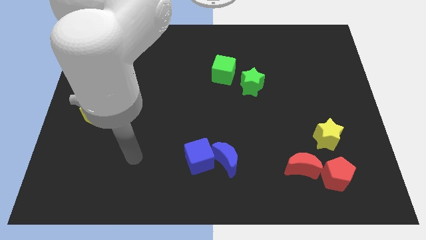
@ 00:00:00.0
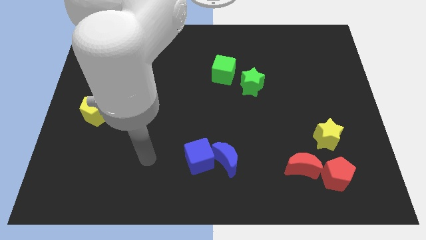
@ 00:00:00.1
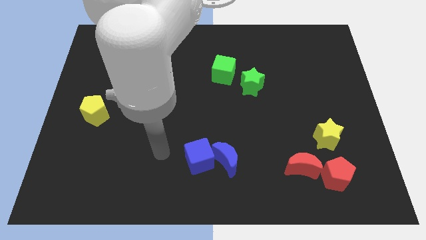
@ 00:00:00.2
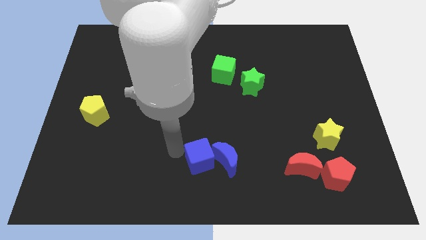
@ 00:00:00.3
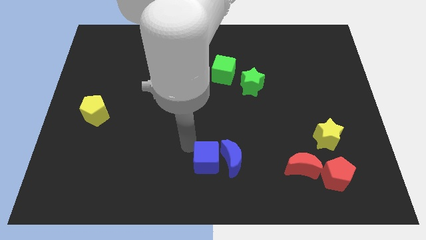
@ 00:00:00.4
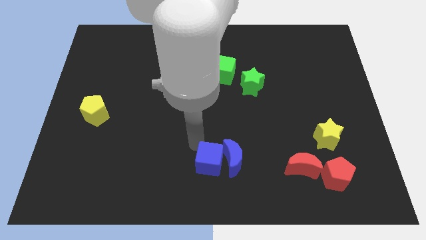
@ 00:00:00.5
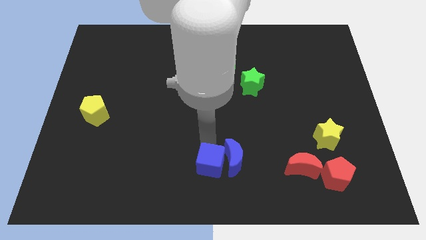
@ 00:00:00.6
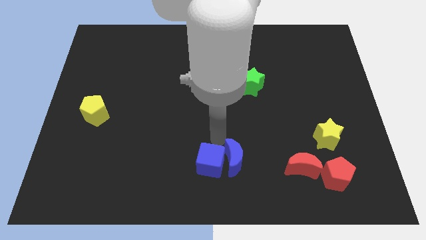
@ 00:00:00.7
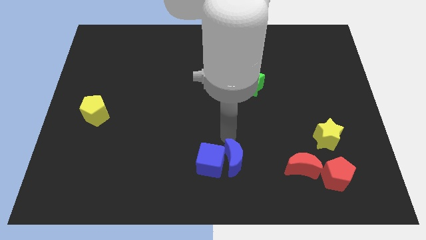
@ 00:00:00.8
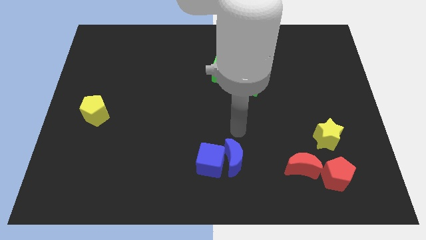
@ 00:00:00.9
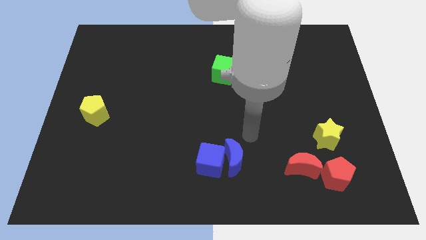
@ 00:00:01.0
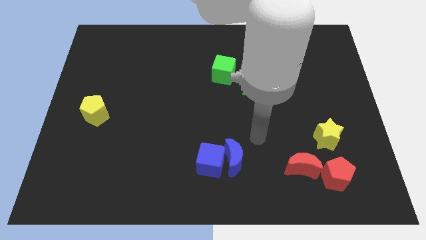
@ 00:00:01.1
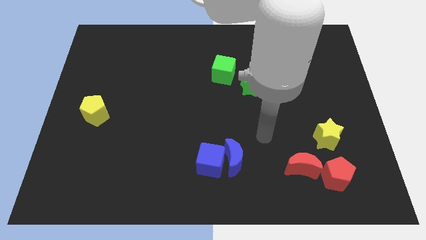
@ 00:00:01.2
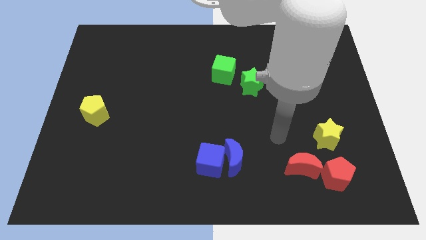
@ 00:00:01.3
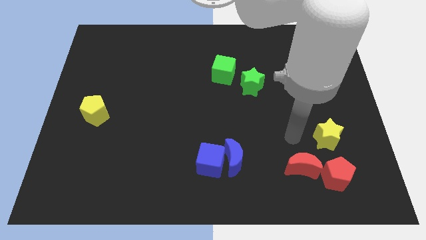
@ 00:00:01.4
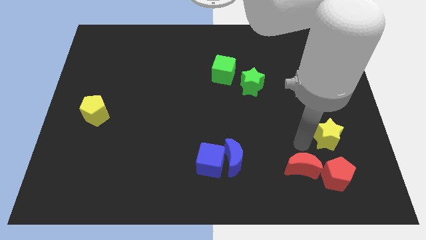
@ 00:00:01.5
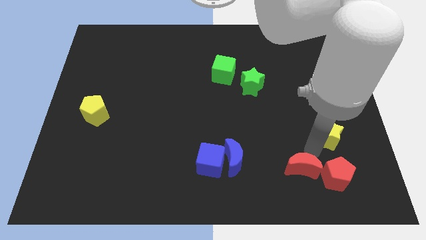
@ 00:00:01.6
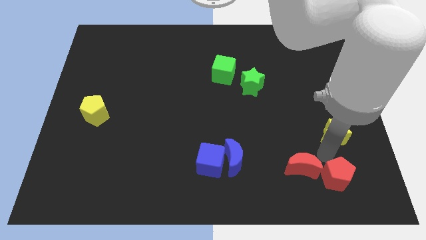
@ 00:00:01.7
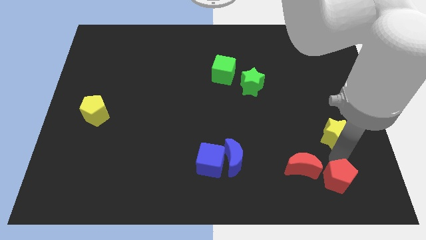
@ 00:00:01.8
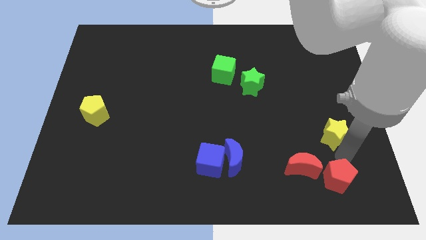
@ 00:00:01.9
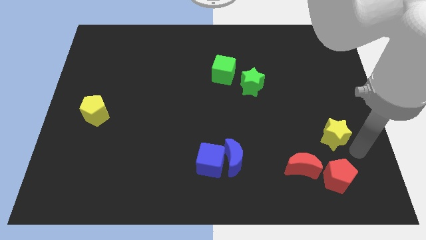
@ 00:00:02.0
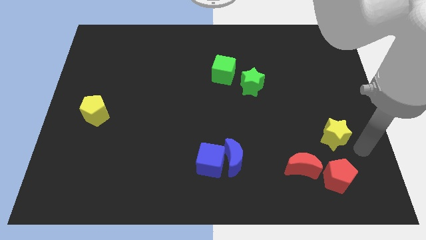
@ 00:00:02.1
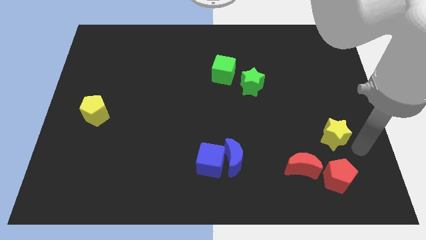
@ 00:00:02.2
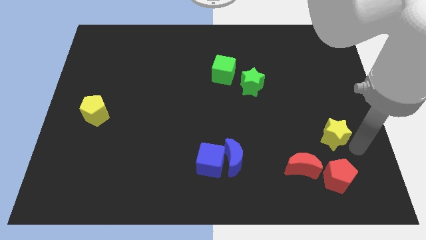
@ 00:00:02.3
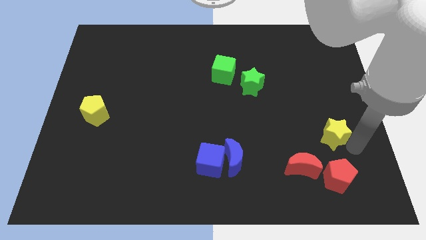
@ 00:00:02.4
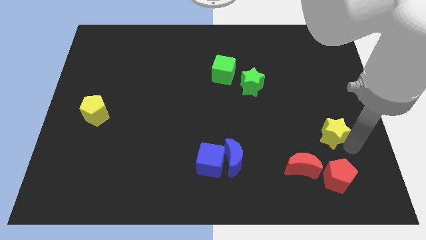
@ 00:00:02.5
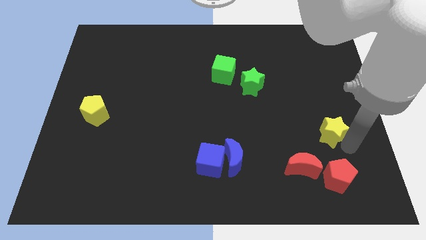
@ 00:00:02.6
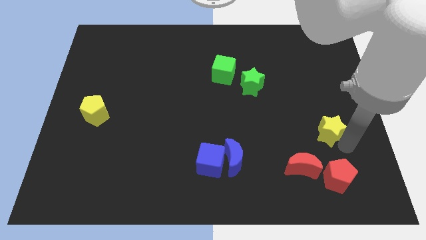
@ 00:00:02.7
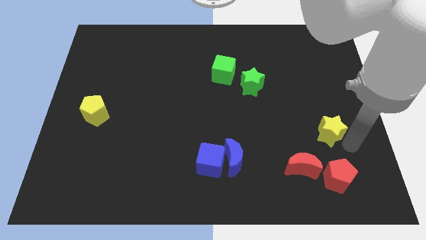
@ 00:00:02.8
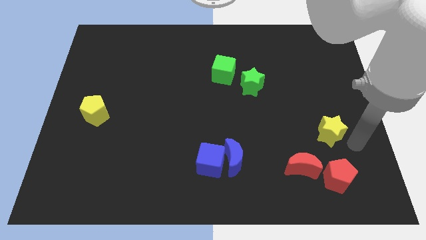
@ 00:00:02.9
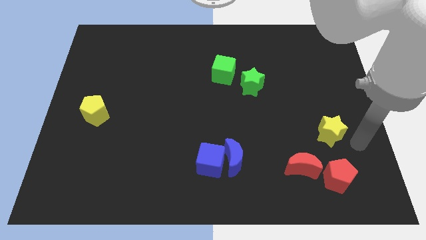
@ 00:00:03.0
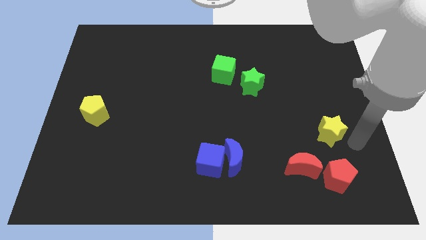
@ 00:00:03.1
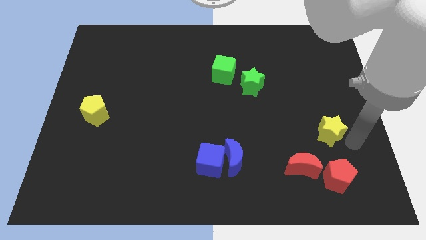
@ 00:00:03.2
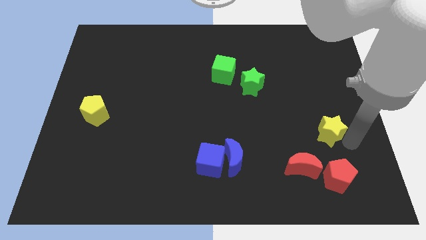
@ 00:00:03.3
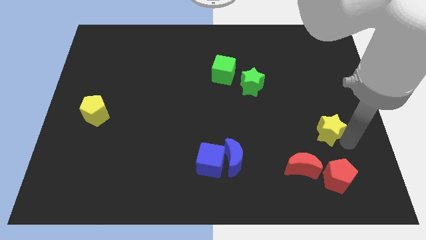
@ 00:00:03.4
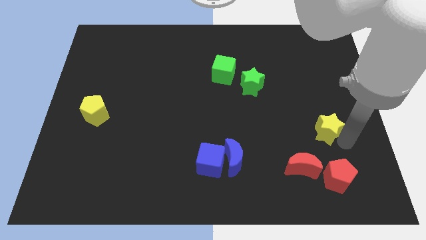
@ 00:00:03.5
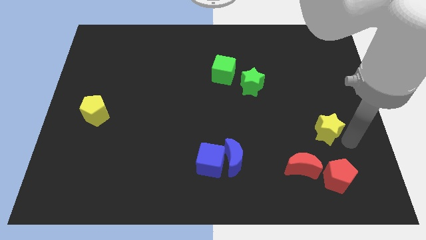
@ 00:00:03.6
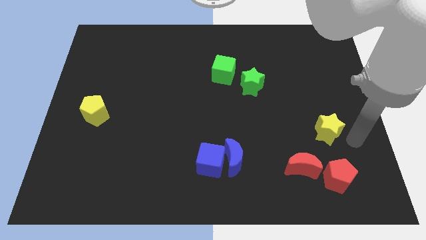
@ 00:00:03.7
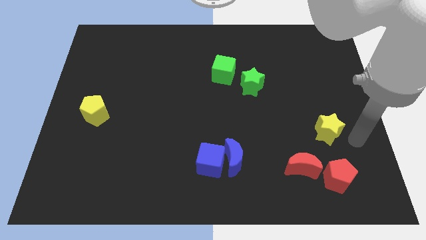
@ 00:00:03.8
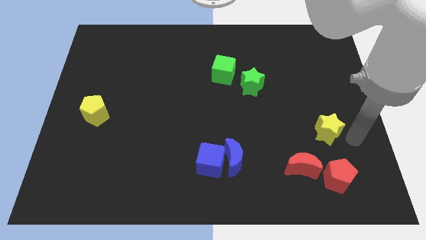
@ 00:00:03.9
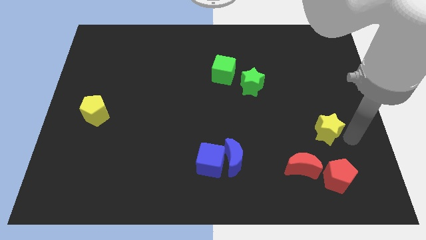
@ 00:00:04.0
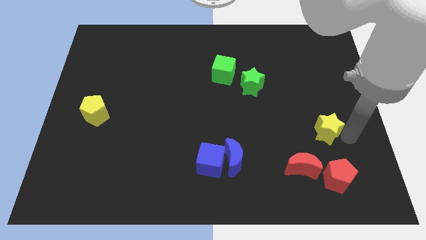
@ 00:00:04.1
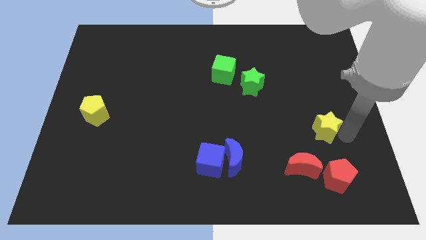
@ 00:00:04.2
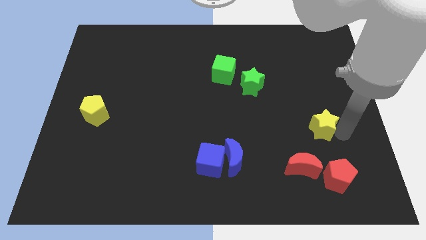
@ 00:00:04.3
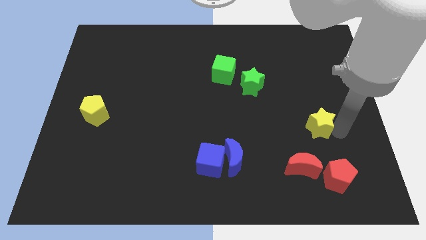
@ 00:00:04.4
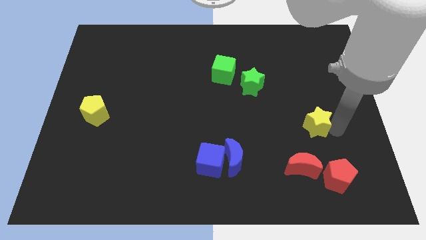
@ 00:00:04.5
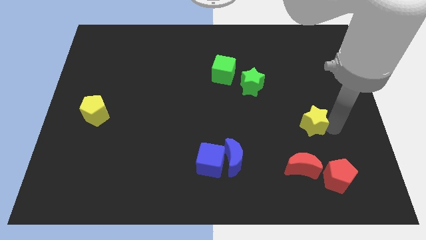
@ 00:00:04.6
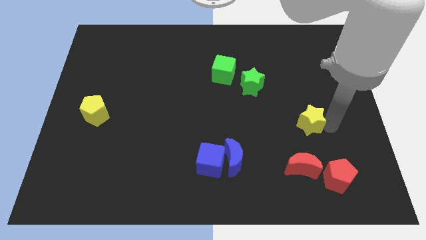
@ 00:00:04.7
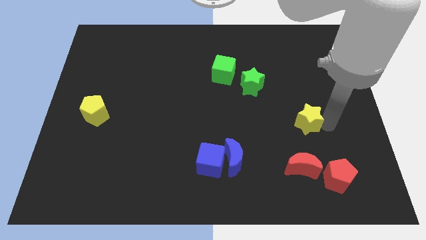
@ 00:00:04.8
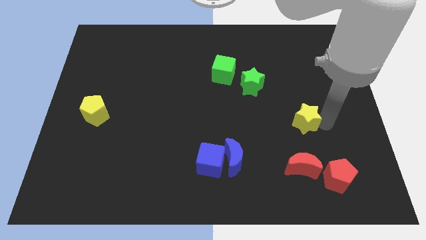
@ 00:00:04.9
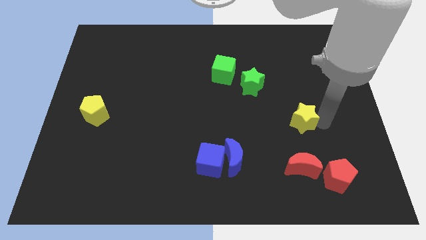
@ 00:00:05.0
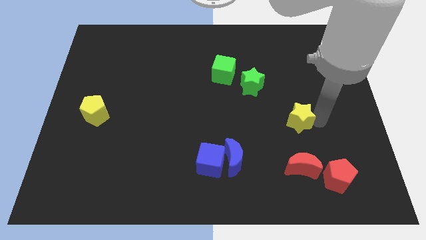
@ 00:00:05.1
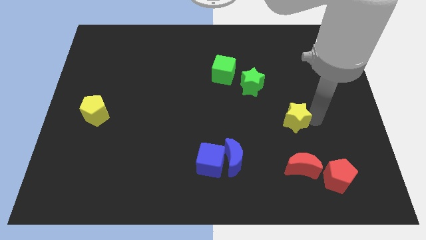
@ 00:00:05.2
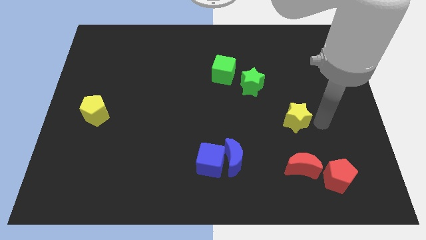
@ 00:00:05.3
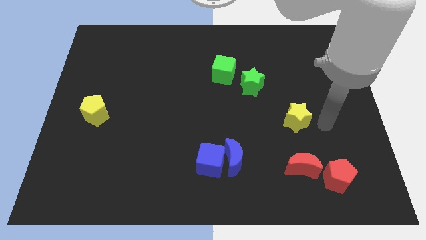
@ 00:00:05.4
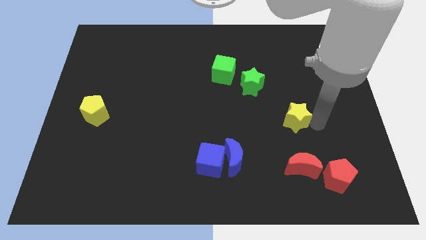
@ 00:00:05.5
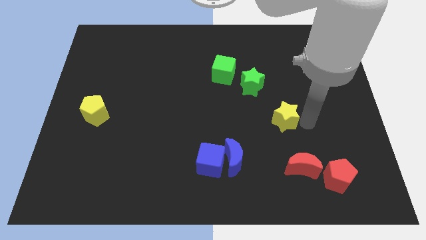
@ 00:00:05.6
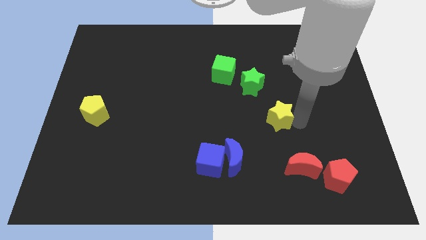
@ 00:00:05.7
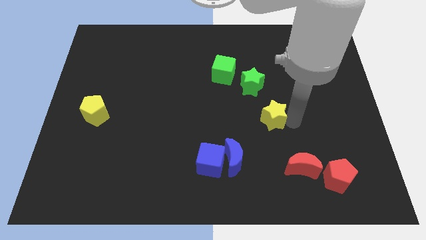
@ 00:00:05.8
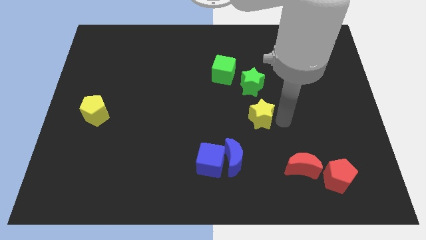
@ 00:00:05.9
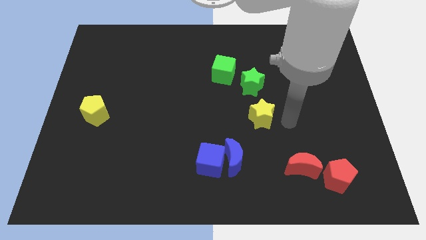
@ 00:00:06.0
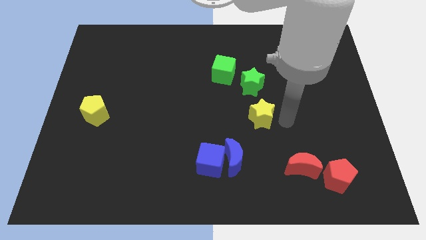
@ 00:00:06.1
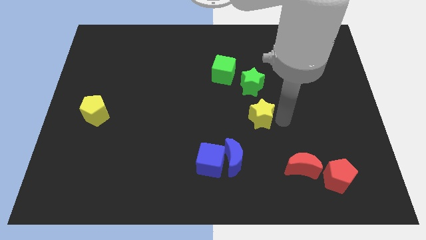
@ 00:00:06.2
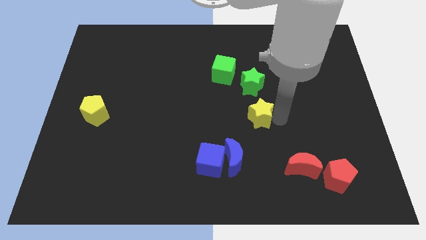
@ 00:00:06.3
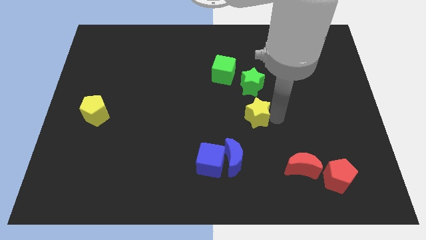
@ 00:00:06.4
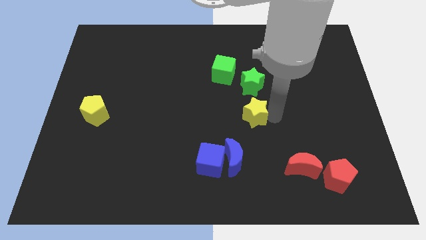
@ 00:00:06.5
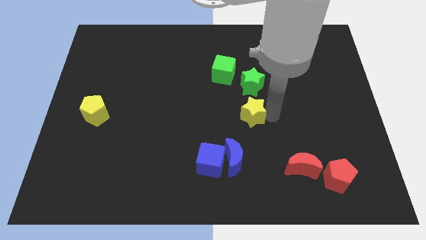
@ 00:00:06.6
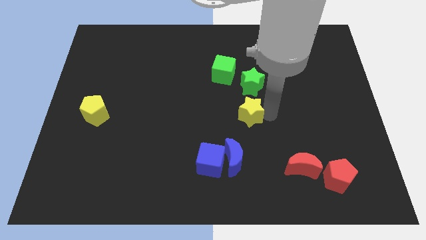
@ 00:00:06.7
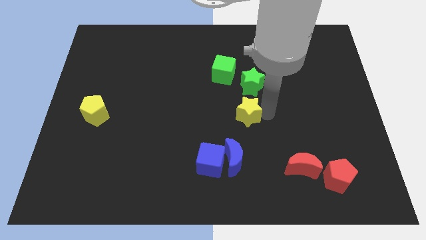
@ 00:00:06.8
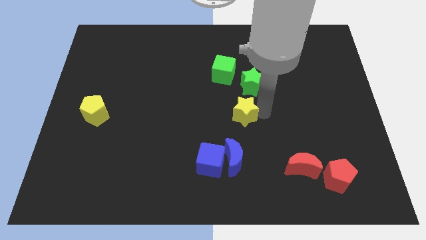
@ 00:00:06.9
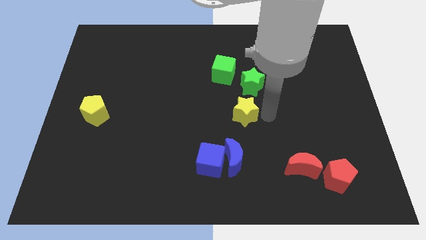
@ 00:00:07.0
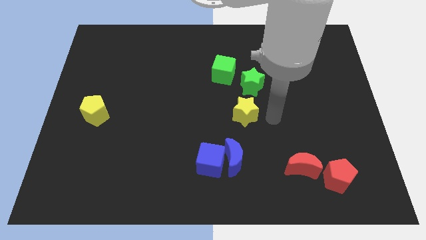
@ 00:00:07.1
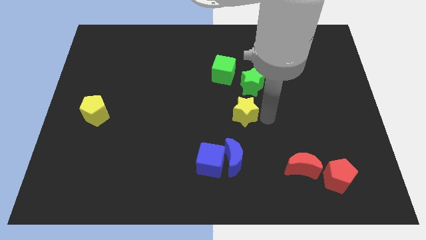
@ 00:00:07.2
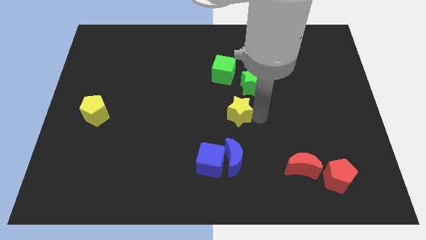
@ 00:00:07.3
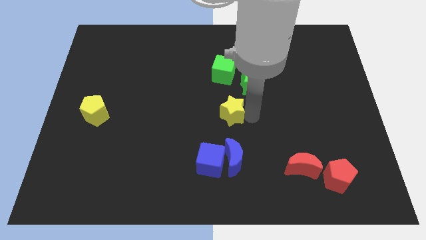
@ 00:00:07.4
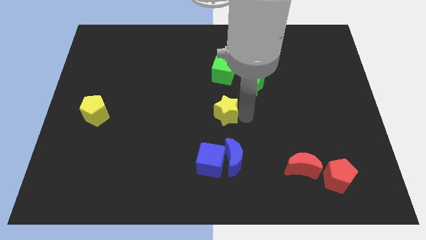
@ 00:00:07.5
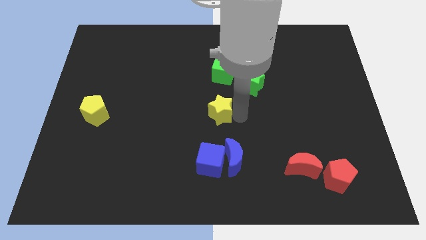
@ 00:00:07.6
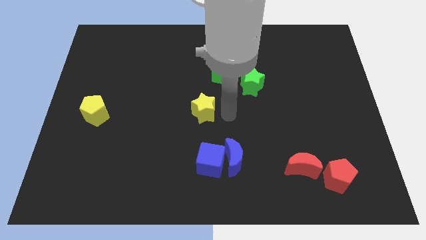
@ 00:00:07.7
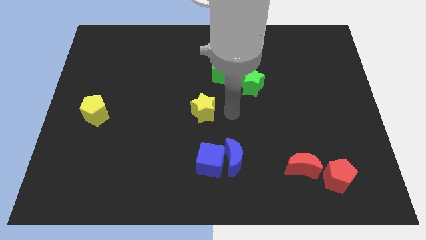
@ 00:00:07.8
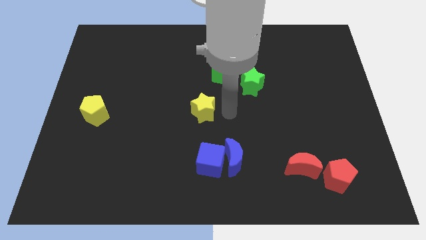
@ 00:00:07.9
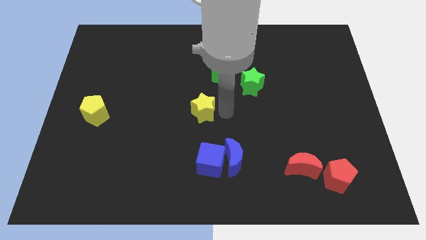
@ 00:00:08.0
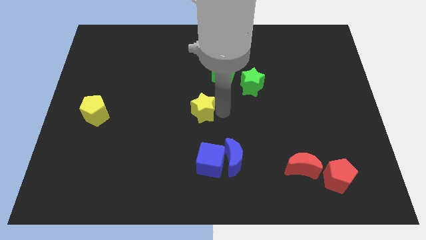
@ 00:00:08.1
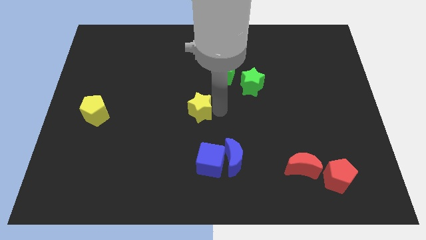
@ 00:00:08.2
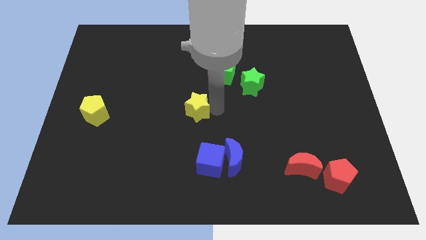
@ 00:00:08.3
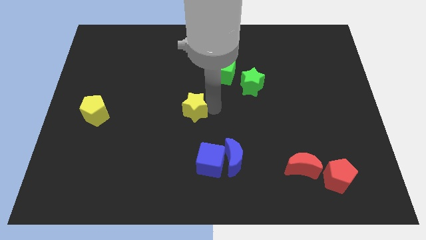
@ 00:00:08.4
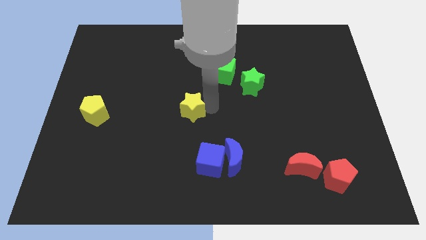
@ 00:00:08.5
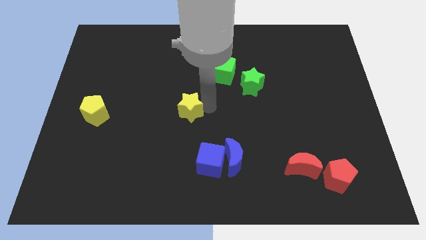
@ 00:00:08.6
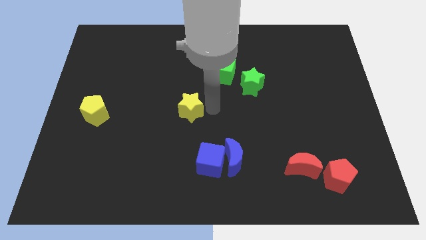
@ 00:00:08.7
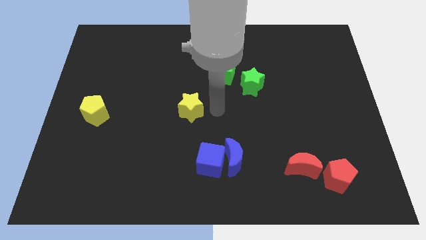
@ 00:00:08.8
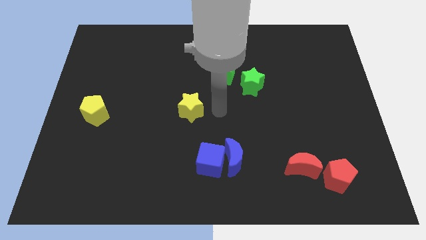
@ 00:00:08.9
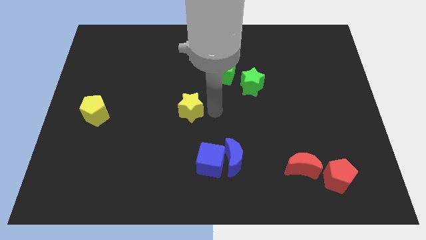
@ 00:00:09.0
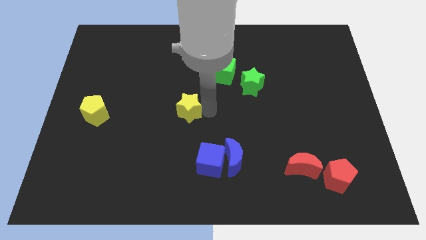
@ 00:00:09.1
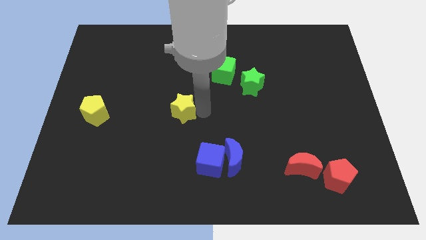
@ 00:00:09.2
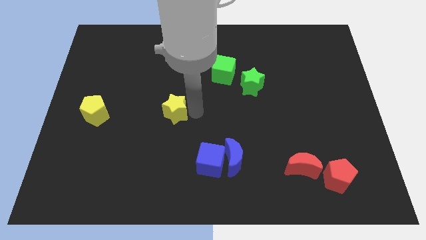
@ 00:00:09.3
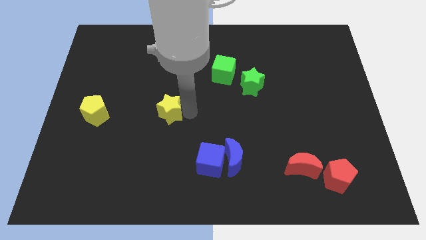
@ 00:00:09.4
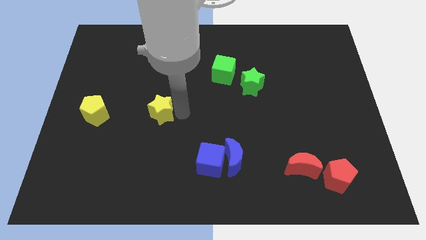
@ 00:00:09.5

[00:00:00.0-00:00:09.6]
put the yellow star right of the yellow pentagon
